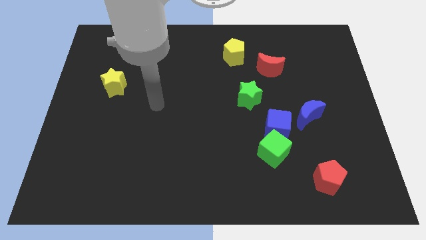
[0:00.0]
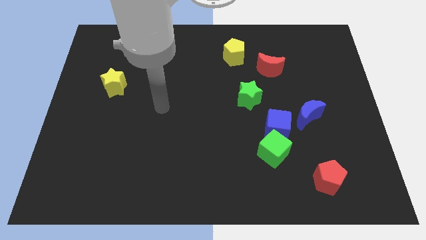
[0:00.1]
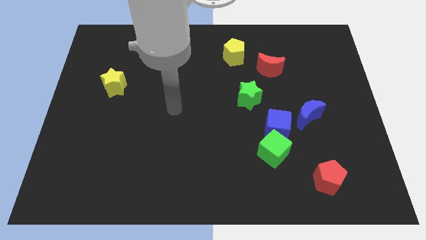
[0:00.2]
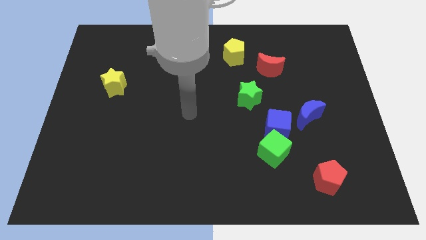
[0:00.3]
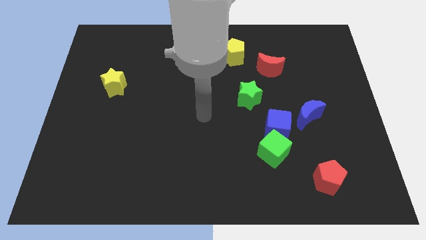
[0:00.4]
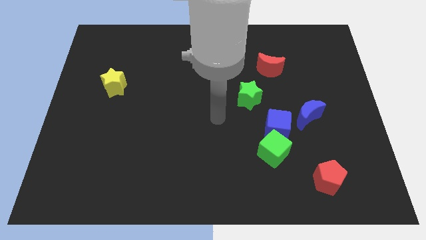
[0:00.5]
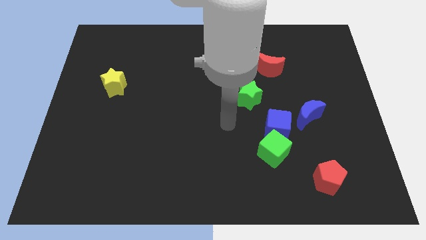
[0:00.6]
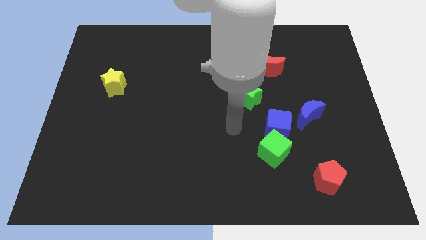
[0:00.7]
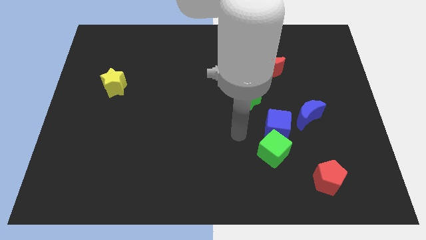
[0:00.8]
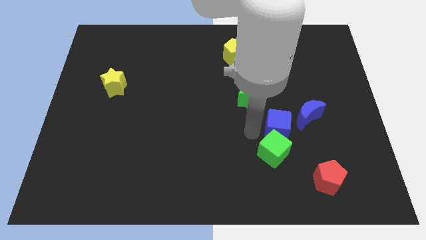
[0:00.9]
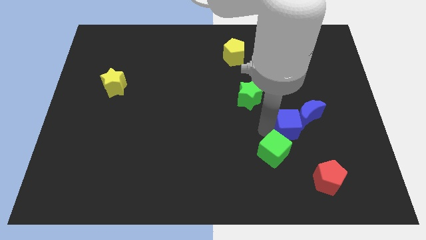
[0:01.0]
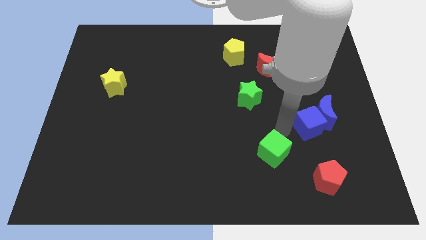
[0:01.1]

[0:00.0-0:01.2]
move the green cube away from the blue cube

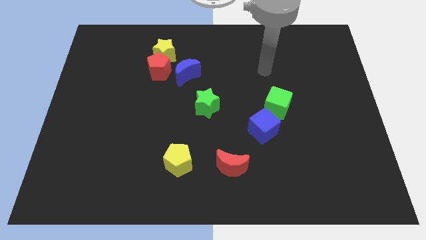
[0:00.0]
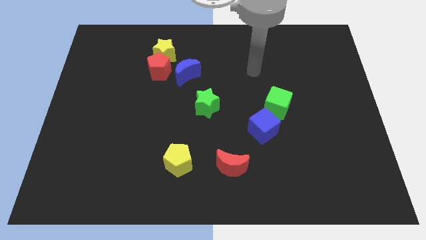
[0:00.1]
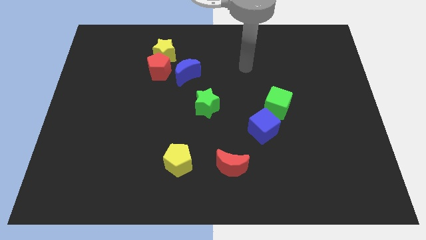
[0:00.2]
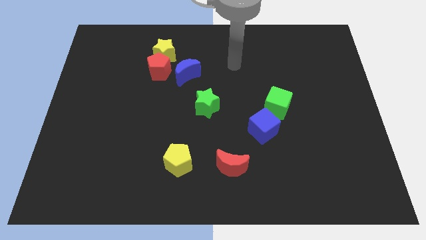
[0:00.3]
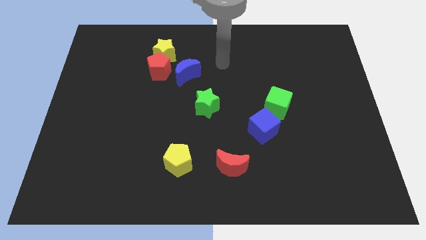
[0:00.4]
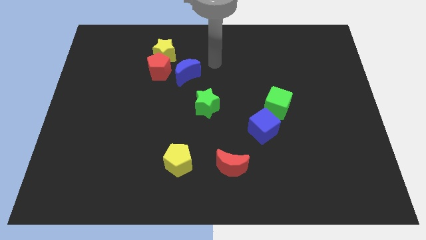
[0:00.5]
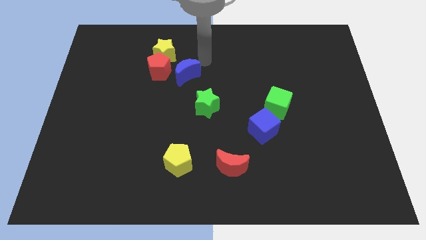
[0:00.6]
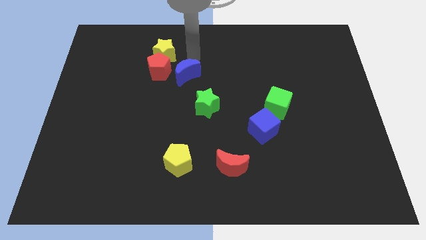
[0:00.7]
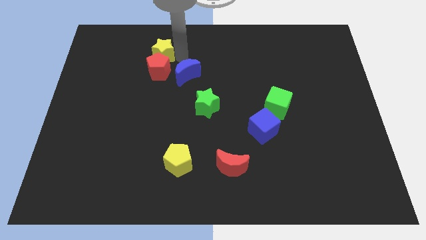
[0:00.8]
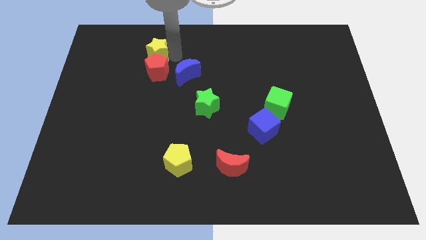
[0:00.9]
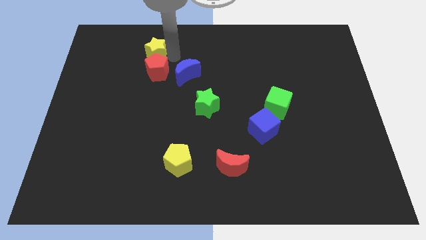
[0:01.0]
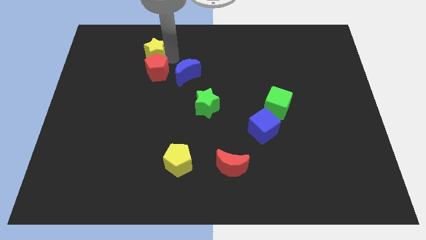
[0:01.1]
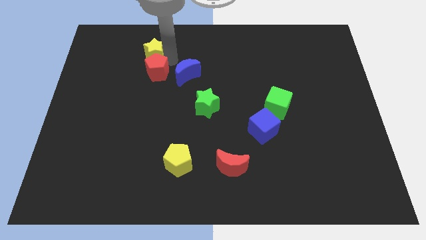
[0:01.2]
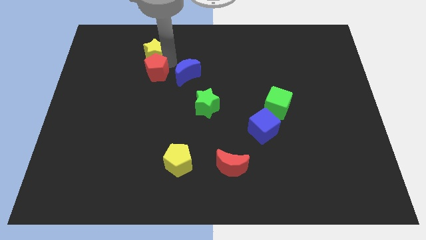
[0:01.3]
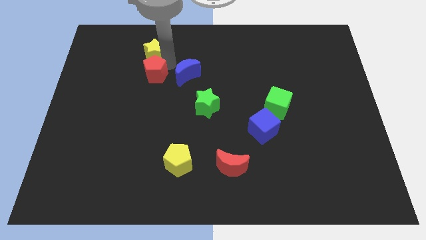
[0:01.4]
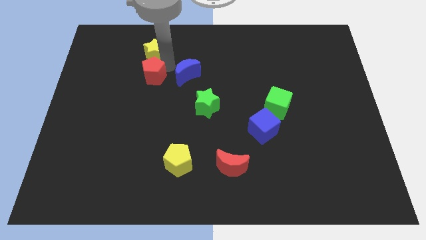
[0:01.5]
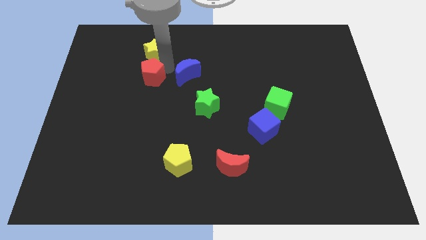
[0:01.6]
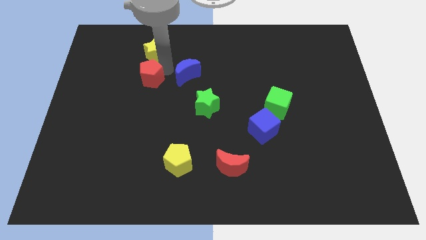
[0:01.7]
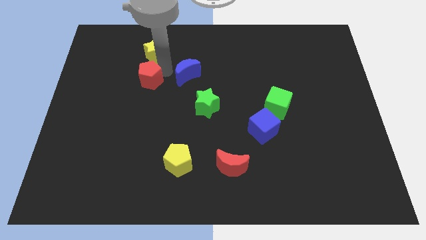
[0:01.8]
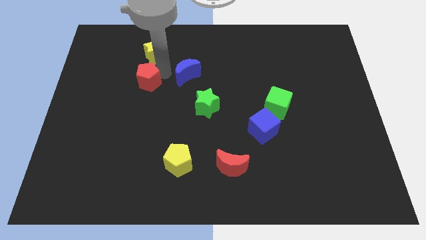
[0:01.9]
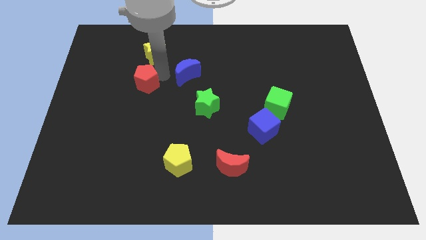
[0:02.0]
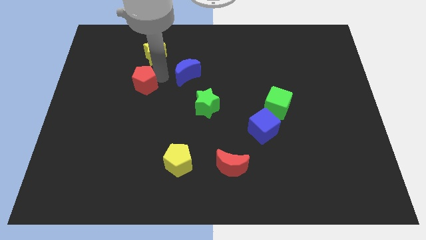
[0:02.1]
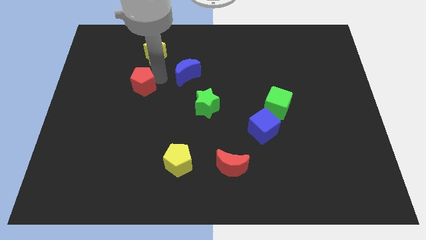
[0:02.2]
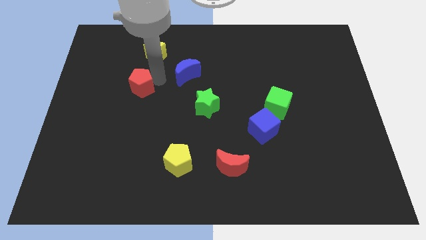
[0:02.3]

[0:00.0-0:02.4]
move the red pentagon away from the yellow star and blue moon

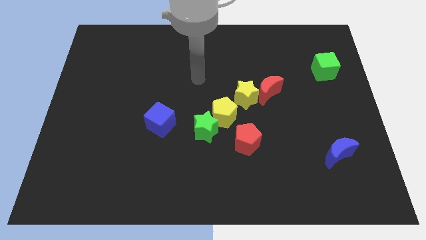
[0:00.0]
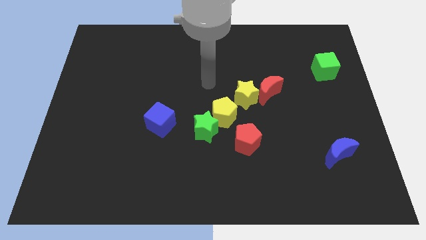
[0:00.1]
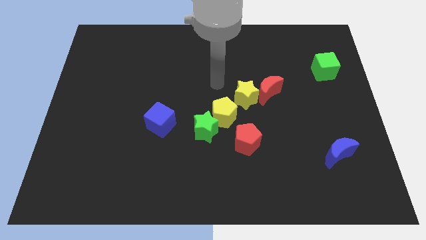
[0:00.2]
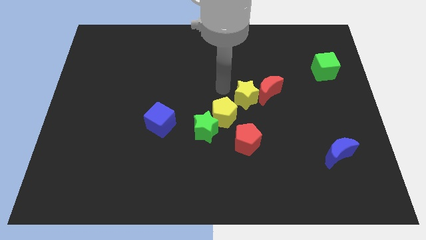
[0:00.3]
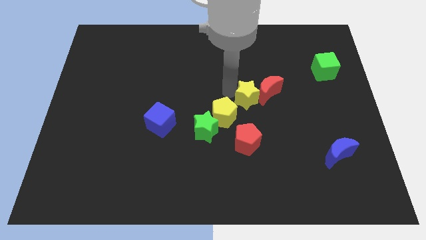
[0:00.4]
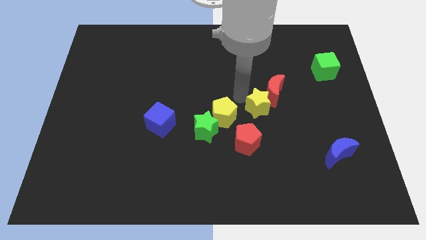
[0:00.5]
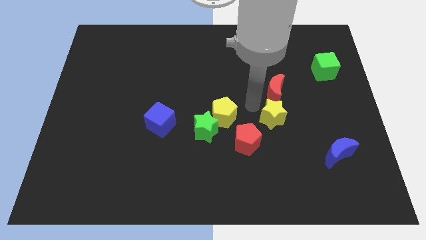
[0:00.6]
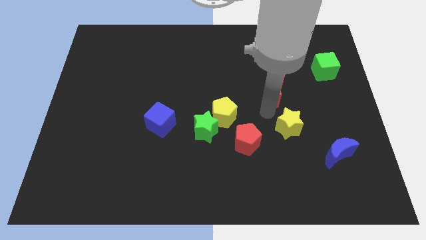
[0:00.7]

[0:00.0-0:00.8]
pull the red moon apart from the yellow star

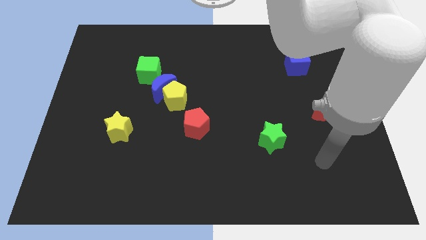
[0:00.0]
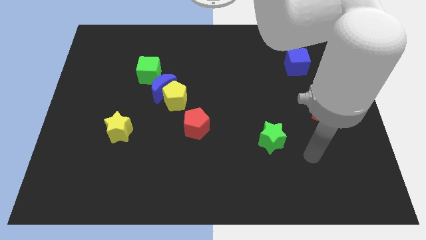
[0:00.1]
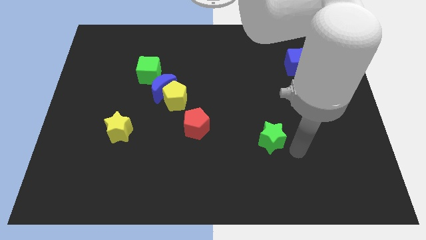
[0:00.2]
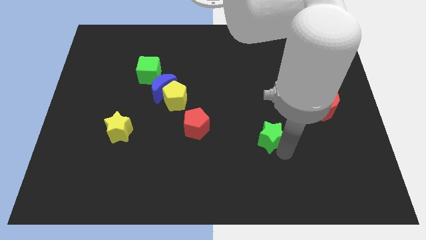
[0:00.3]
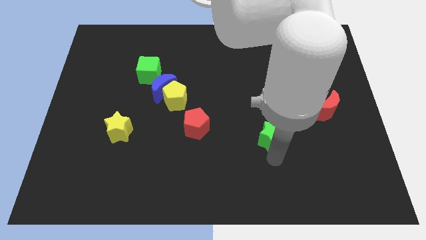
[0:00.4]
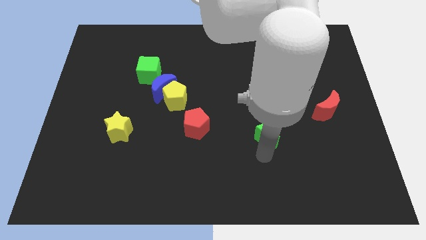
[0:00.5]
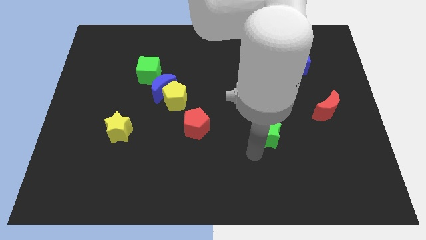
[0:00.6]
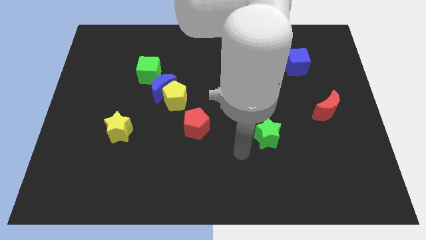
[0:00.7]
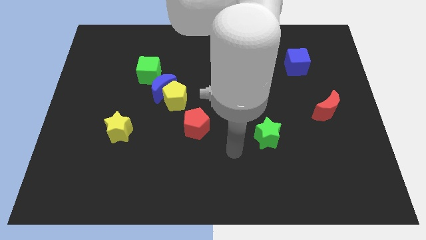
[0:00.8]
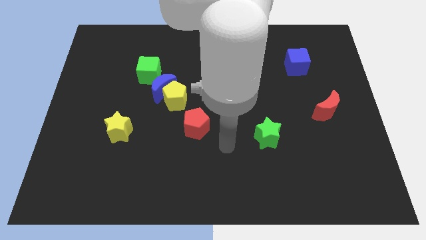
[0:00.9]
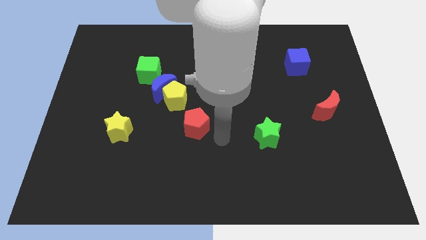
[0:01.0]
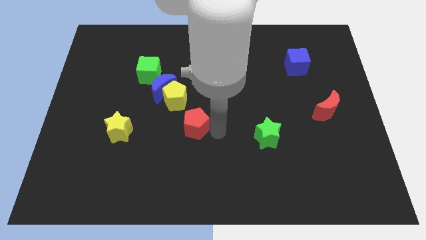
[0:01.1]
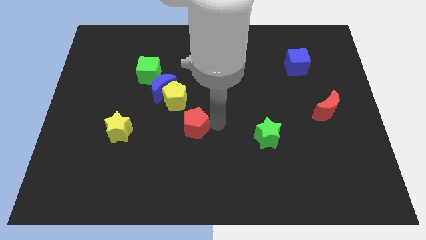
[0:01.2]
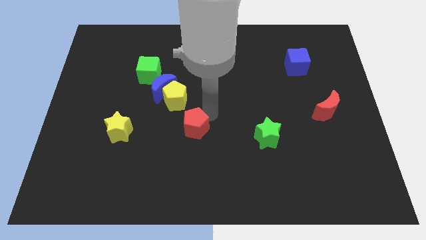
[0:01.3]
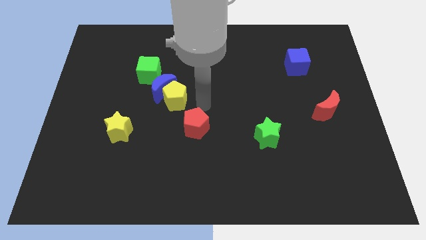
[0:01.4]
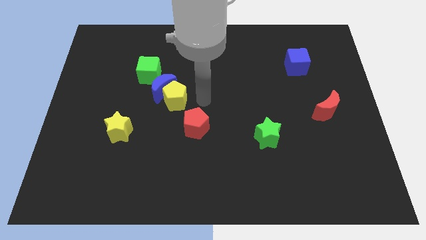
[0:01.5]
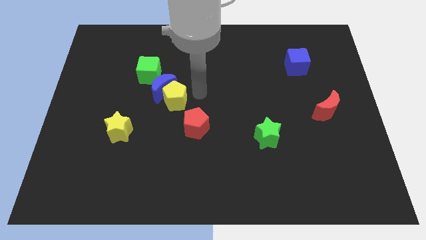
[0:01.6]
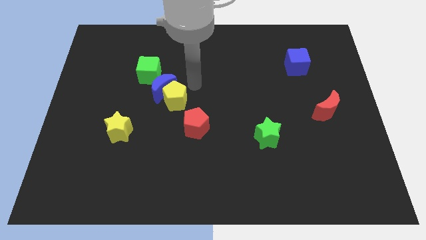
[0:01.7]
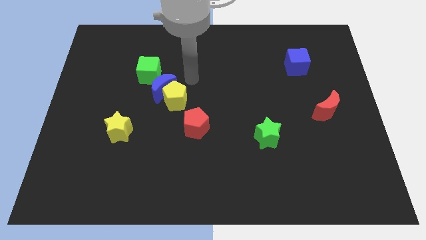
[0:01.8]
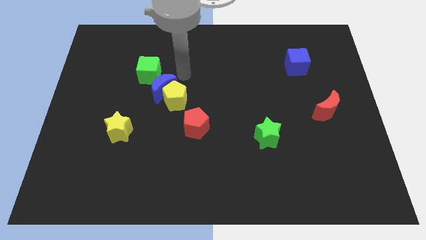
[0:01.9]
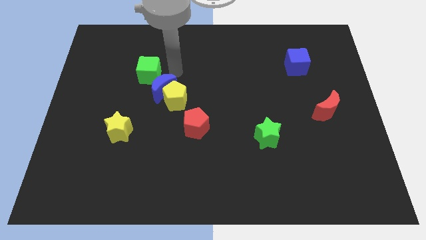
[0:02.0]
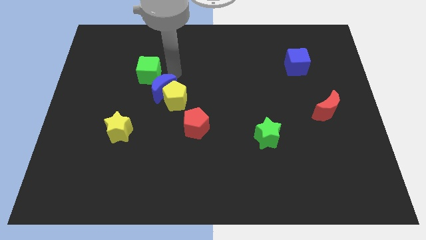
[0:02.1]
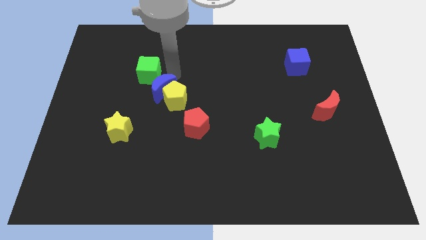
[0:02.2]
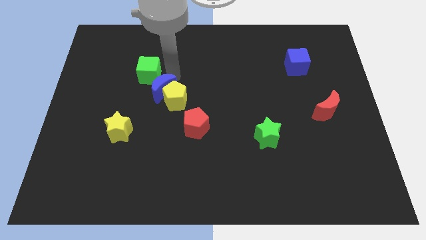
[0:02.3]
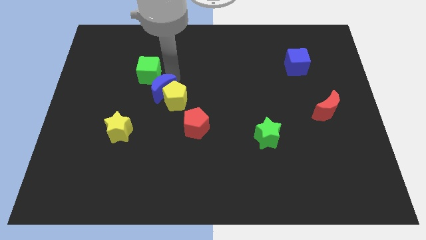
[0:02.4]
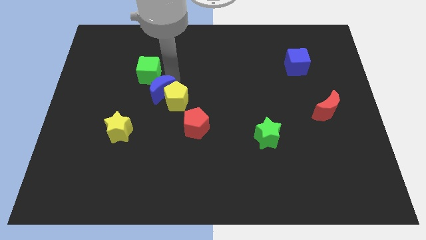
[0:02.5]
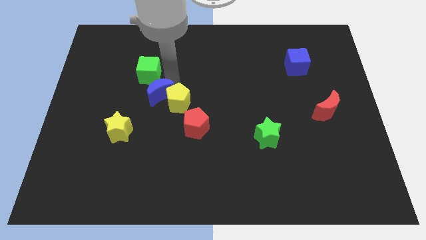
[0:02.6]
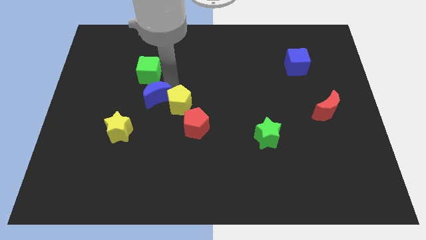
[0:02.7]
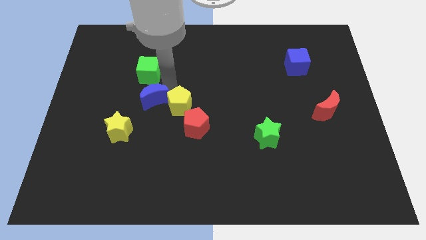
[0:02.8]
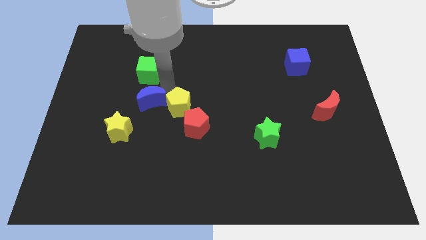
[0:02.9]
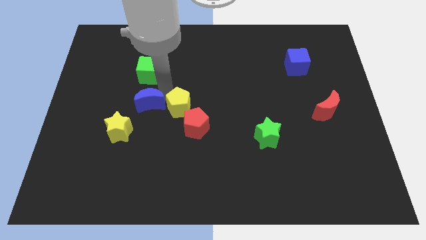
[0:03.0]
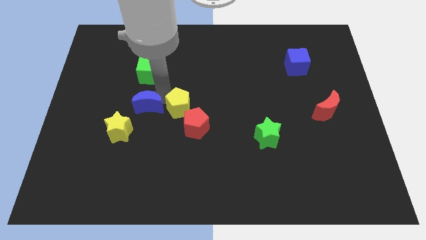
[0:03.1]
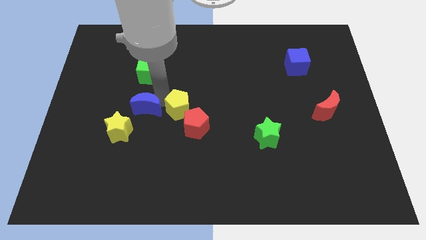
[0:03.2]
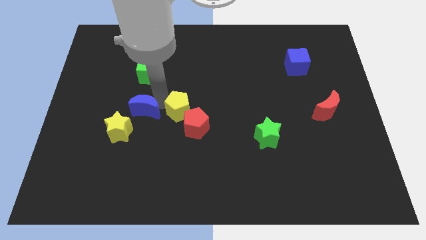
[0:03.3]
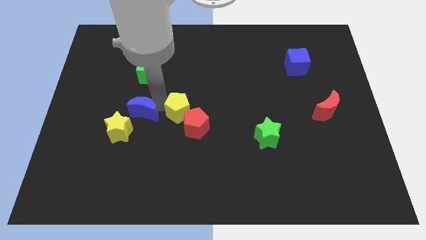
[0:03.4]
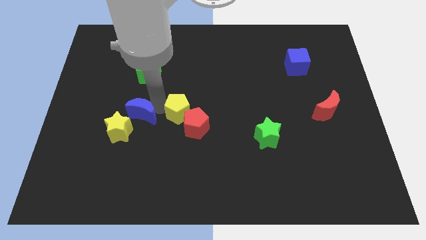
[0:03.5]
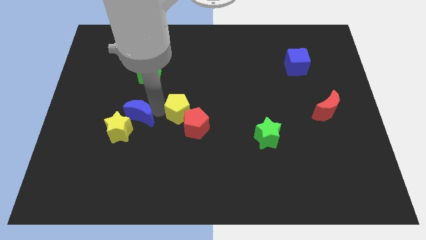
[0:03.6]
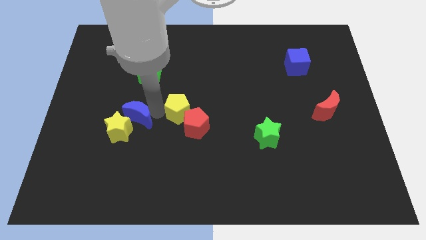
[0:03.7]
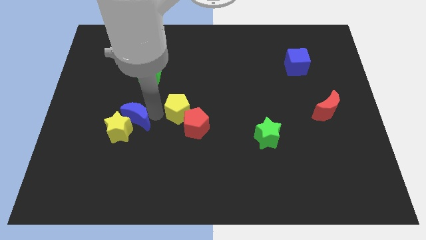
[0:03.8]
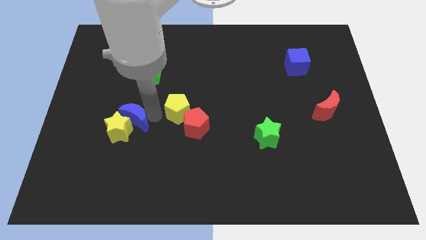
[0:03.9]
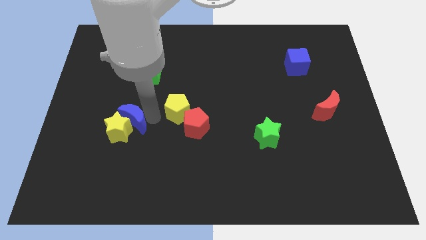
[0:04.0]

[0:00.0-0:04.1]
pull the blue moon apart from the yellow pentagon and green cube

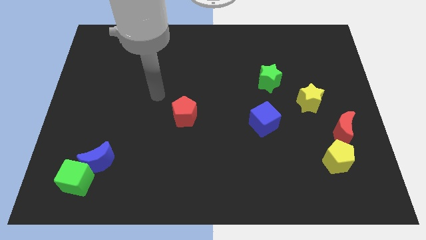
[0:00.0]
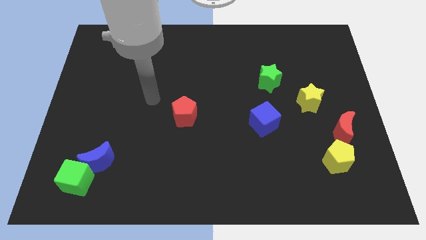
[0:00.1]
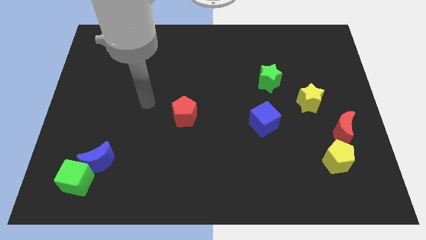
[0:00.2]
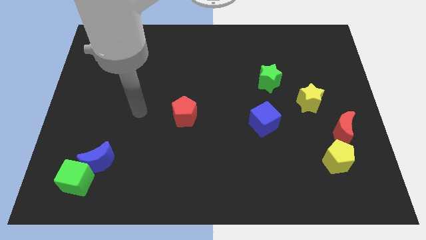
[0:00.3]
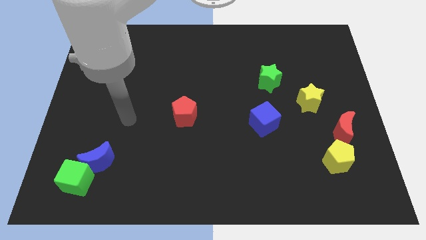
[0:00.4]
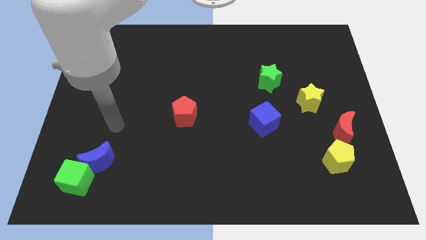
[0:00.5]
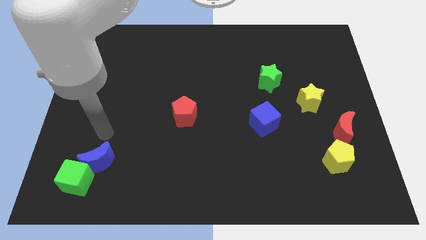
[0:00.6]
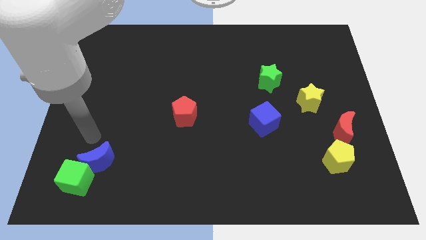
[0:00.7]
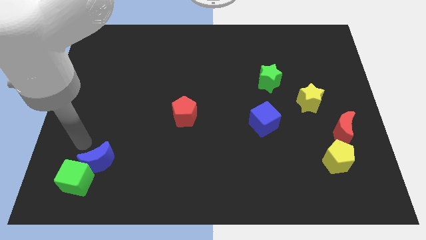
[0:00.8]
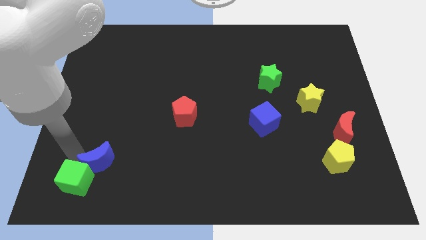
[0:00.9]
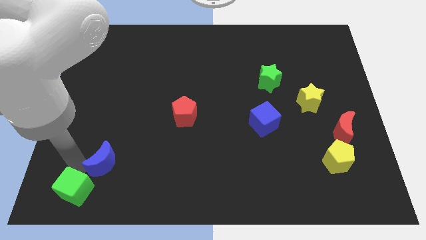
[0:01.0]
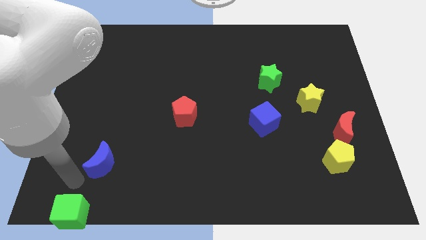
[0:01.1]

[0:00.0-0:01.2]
separate the blue moon from the green cube
